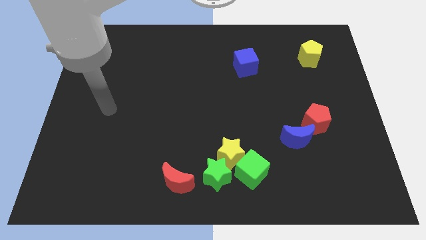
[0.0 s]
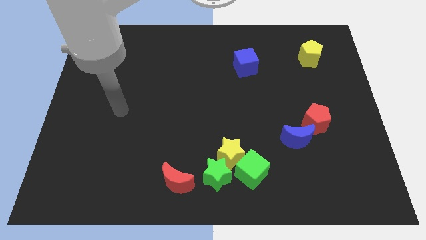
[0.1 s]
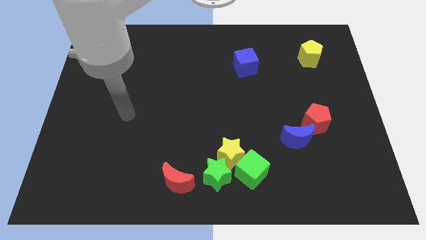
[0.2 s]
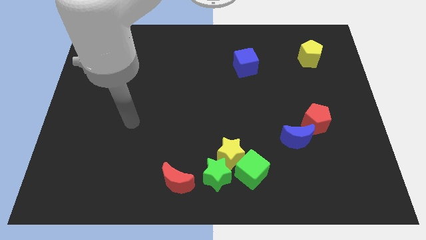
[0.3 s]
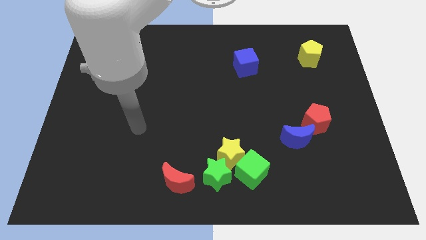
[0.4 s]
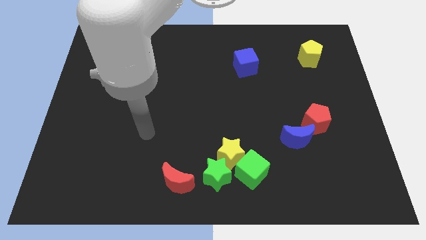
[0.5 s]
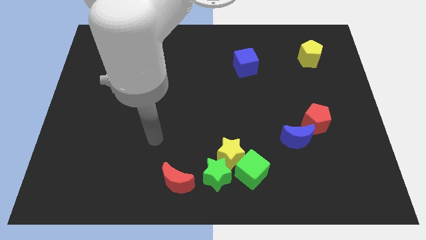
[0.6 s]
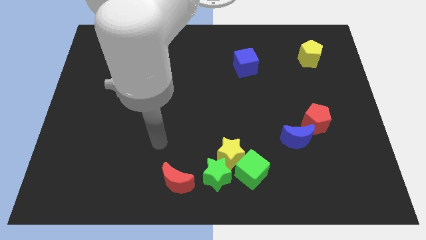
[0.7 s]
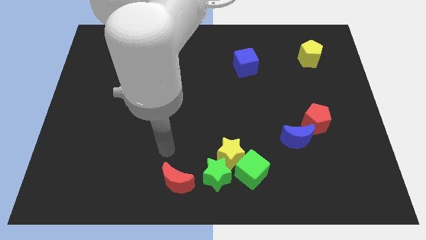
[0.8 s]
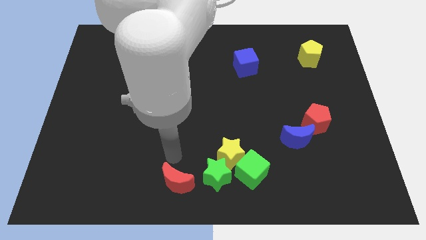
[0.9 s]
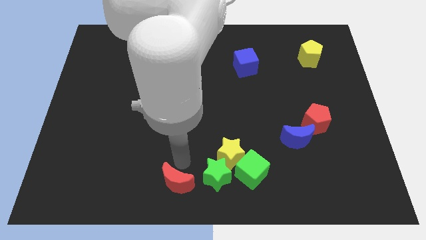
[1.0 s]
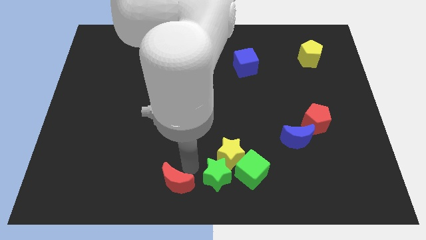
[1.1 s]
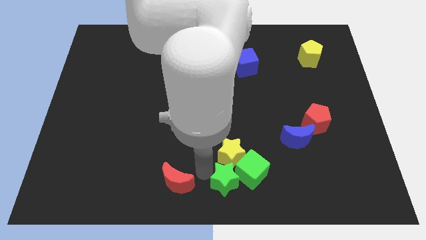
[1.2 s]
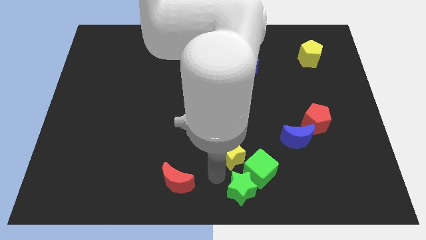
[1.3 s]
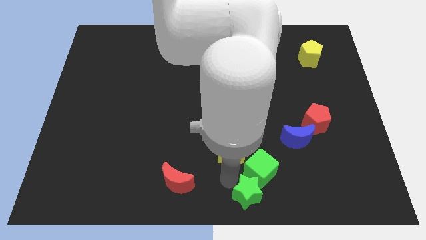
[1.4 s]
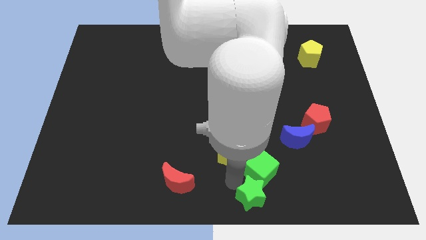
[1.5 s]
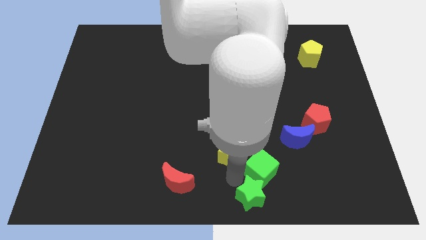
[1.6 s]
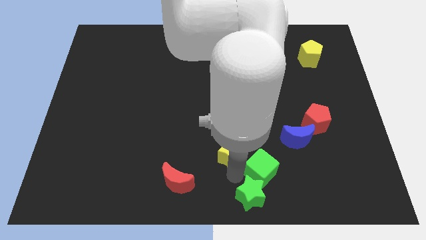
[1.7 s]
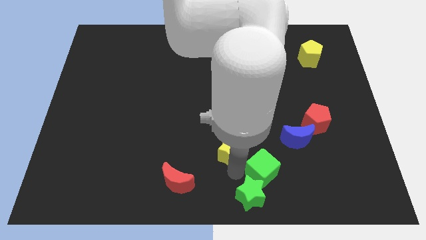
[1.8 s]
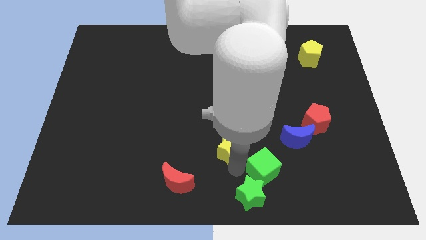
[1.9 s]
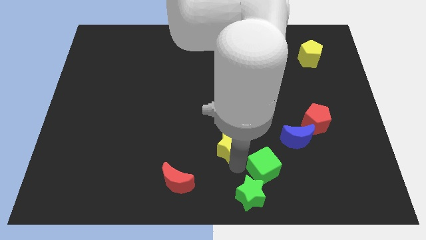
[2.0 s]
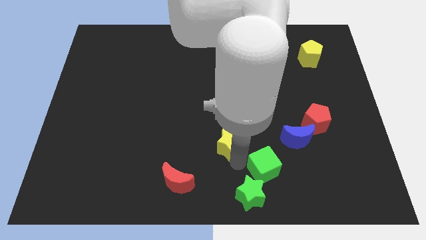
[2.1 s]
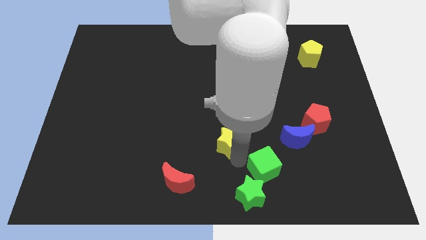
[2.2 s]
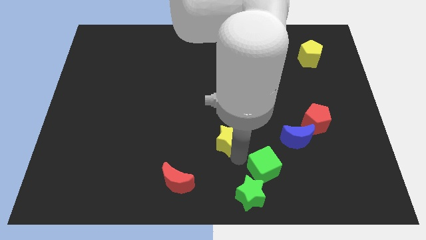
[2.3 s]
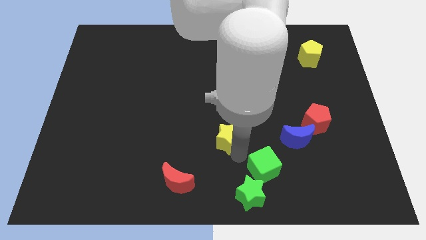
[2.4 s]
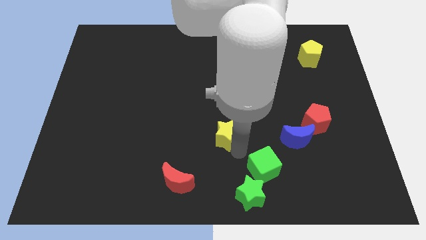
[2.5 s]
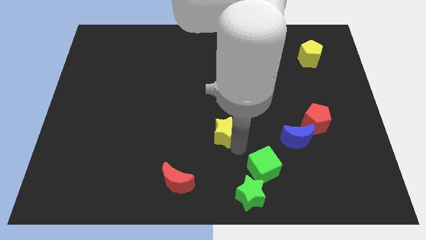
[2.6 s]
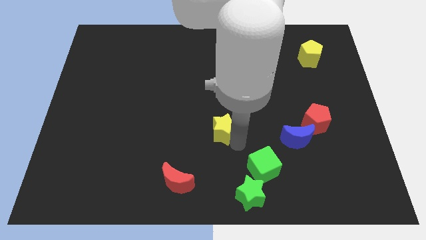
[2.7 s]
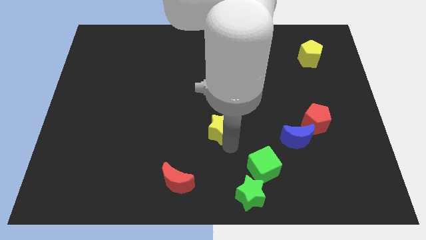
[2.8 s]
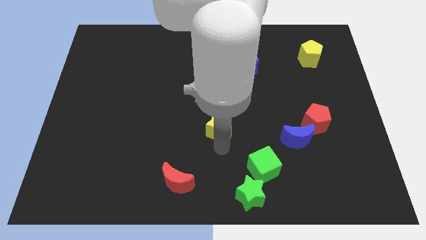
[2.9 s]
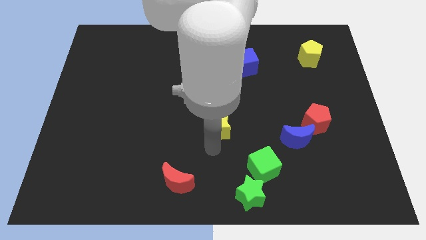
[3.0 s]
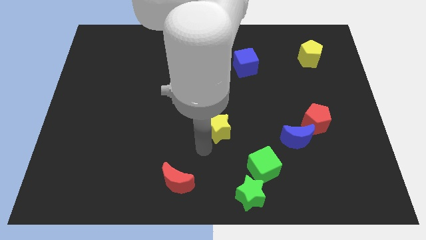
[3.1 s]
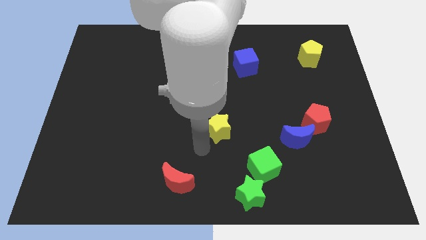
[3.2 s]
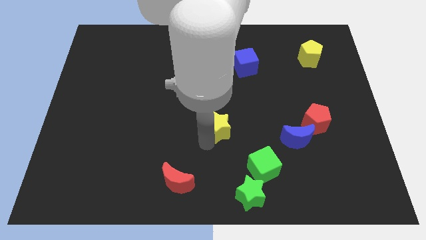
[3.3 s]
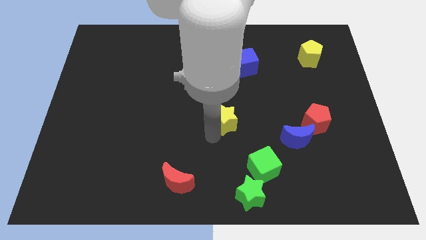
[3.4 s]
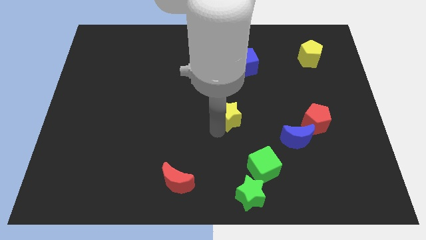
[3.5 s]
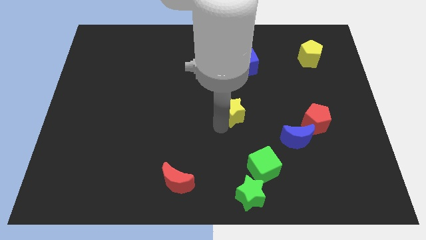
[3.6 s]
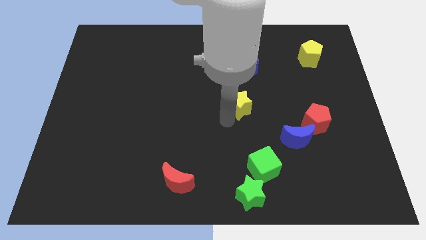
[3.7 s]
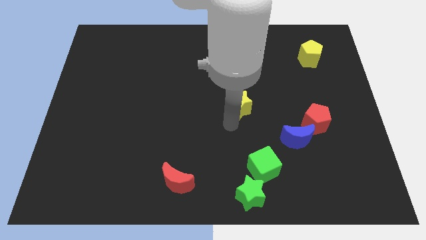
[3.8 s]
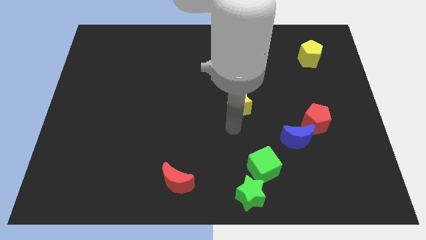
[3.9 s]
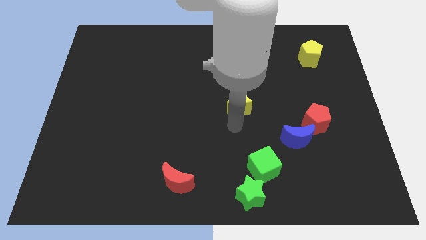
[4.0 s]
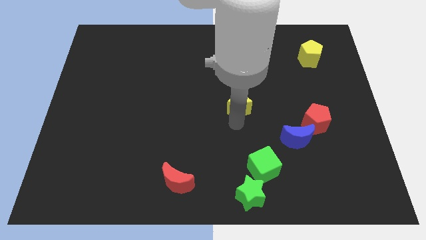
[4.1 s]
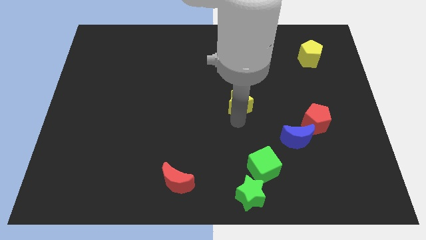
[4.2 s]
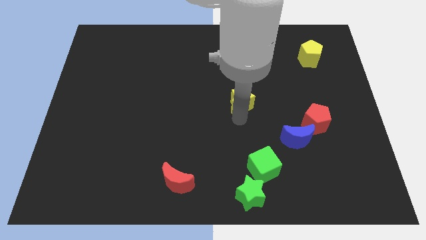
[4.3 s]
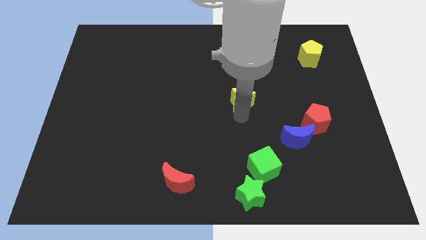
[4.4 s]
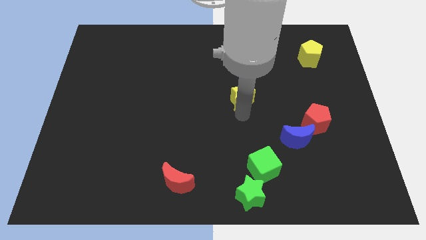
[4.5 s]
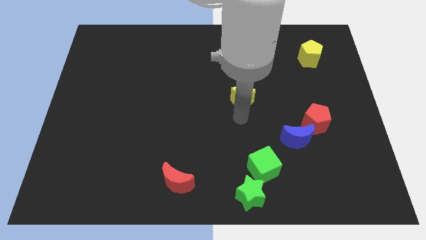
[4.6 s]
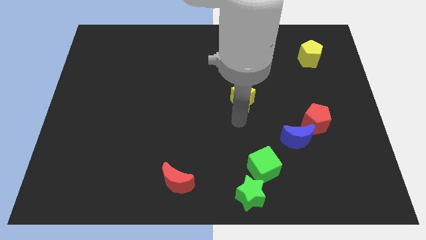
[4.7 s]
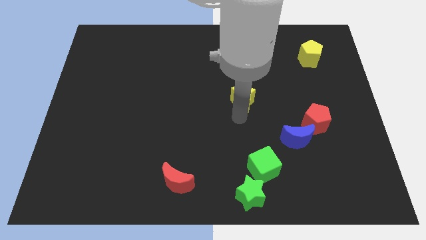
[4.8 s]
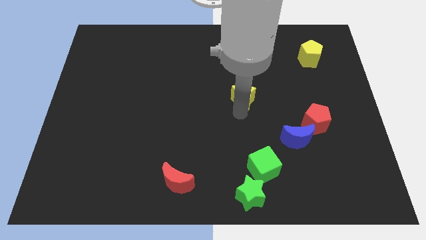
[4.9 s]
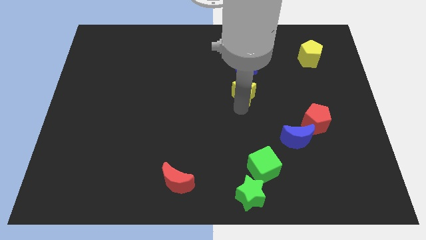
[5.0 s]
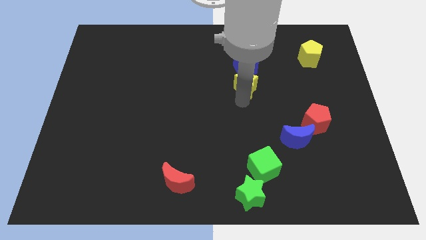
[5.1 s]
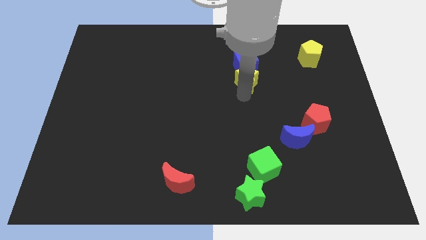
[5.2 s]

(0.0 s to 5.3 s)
push the yellow star to the blue cube

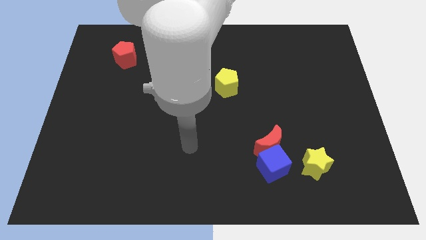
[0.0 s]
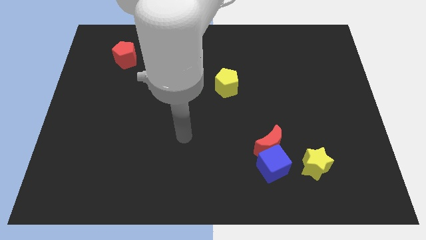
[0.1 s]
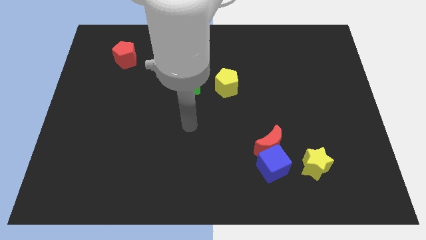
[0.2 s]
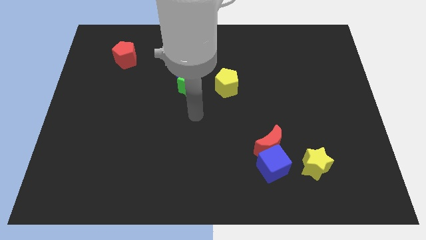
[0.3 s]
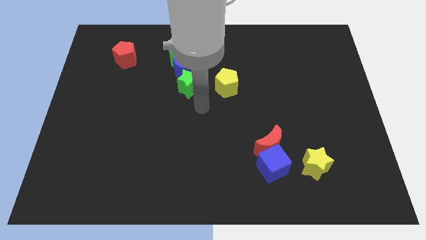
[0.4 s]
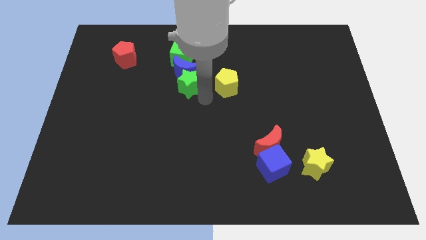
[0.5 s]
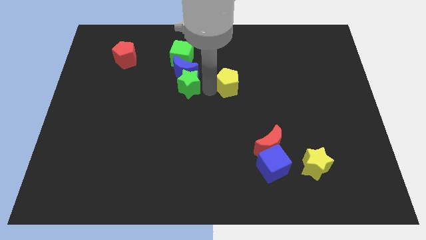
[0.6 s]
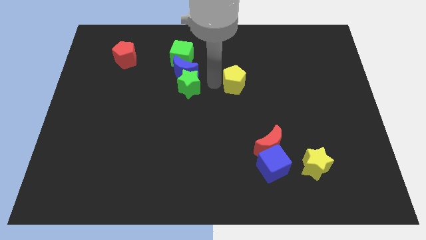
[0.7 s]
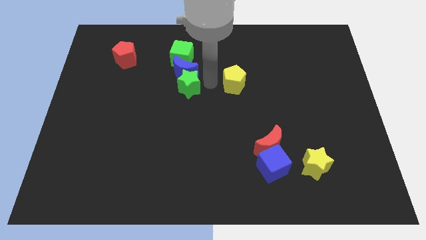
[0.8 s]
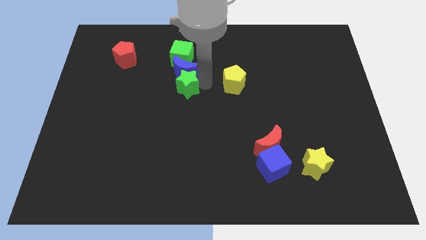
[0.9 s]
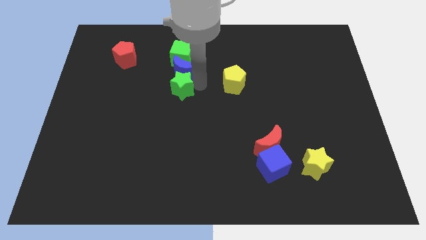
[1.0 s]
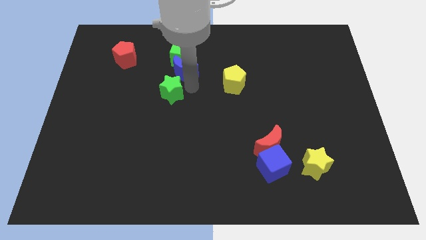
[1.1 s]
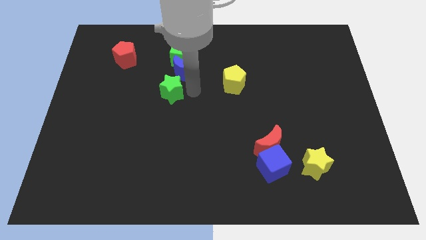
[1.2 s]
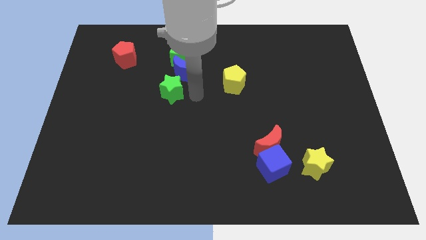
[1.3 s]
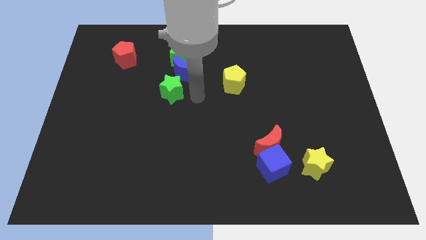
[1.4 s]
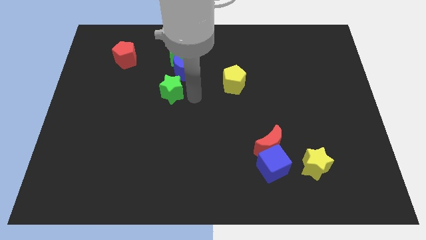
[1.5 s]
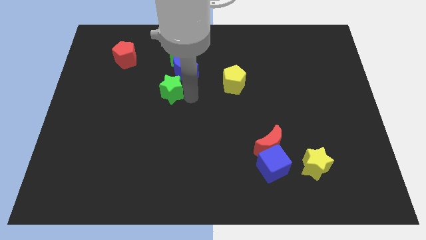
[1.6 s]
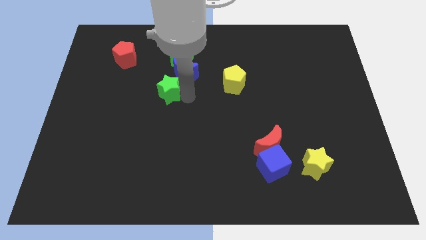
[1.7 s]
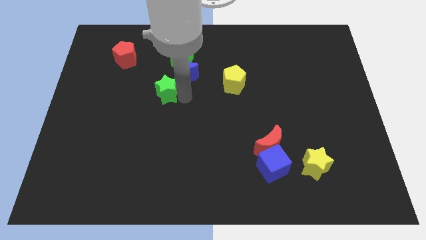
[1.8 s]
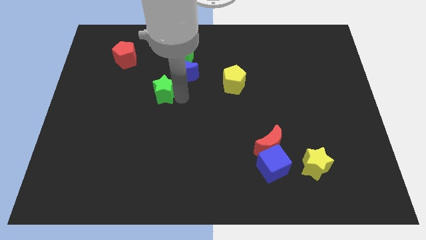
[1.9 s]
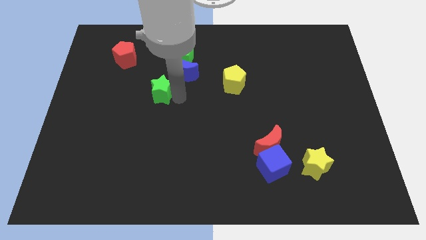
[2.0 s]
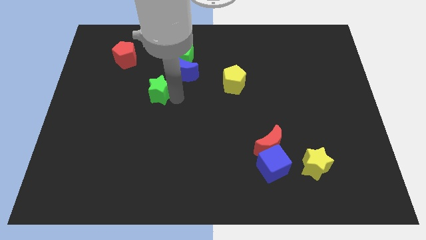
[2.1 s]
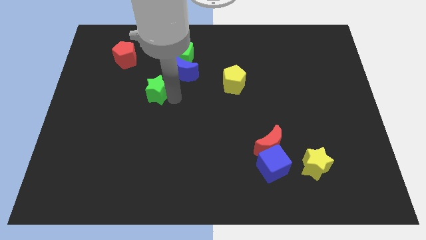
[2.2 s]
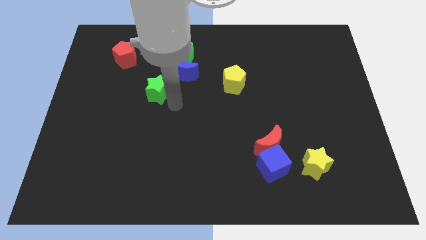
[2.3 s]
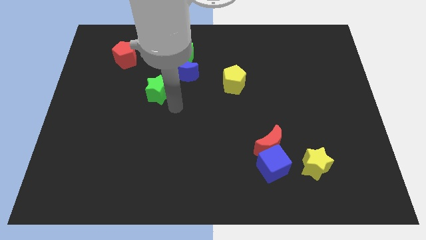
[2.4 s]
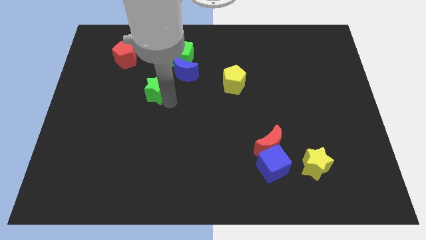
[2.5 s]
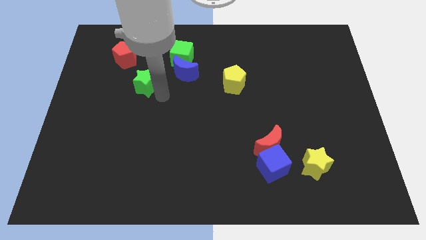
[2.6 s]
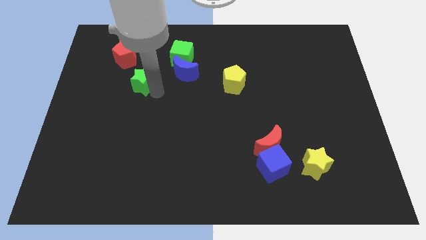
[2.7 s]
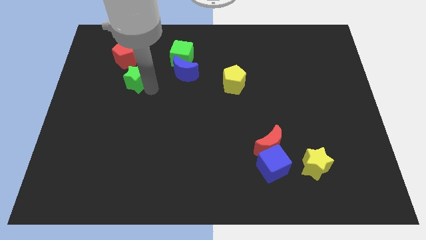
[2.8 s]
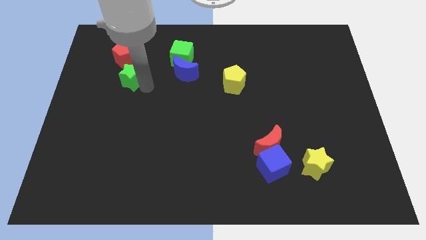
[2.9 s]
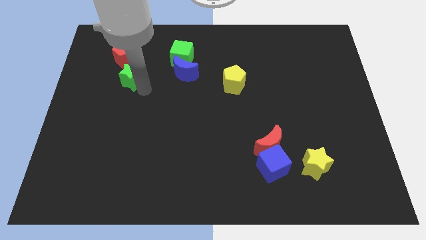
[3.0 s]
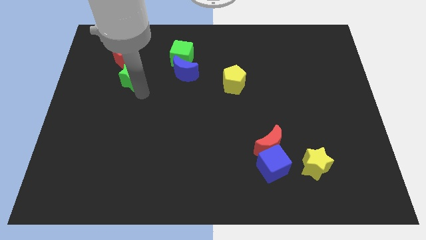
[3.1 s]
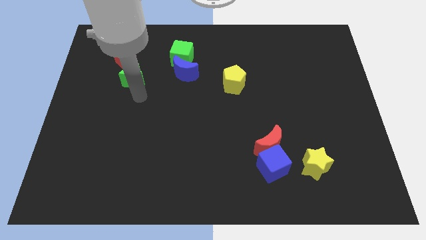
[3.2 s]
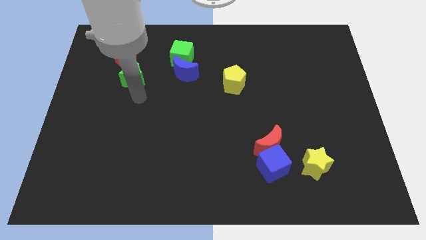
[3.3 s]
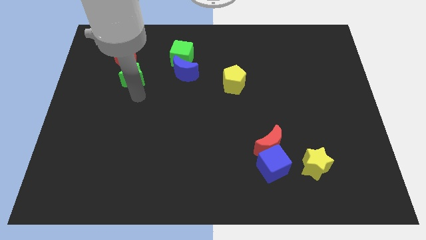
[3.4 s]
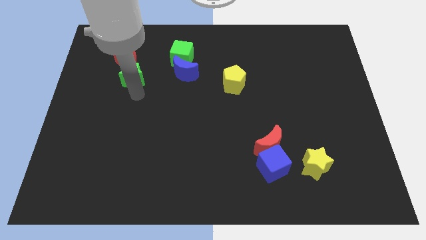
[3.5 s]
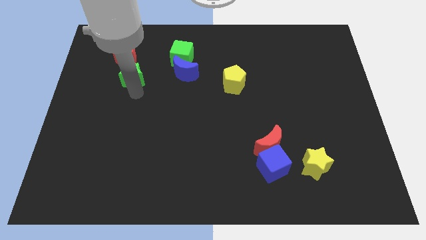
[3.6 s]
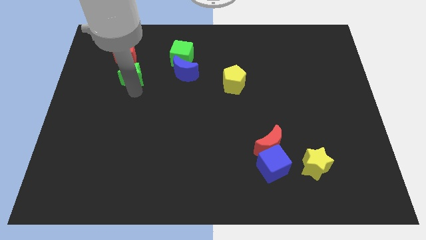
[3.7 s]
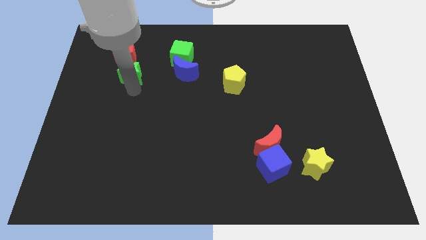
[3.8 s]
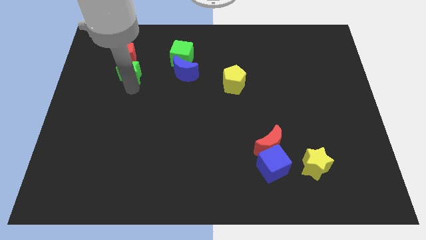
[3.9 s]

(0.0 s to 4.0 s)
push the green star towards the red pentagon
